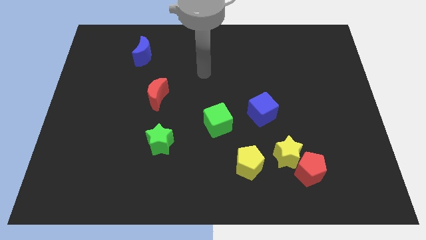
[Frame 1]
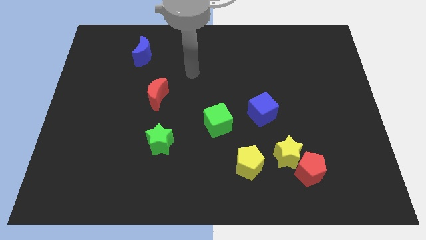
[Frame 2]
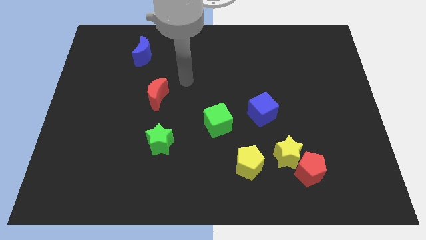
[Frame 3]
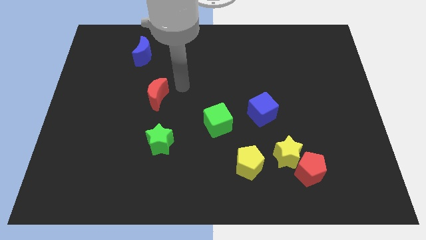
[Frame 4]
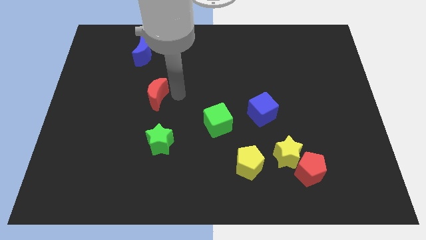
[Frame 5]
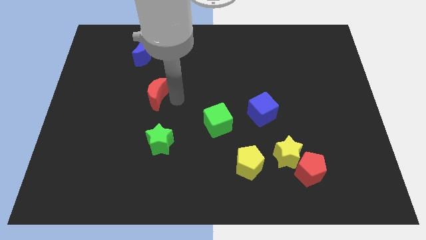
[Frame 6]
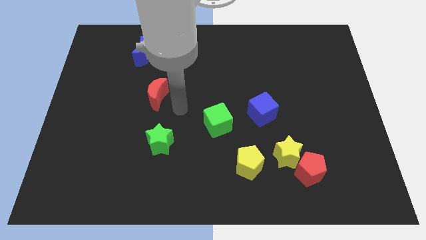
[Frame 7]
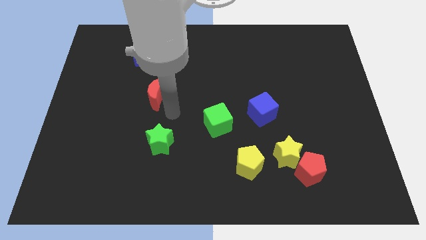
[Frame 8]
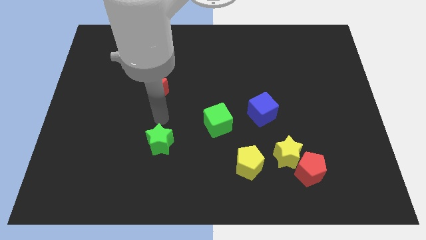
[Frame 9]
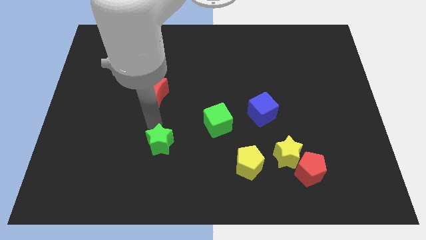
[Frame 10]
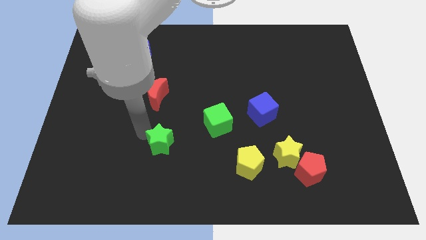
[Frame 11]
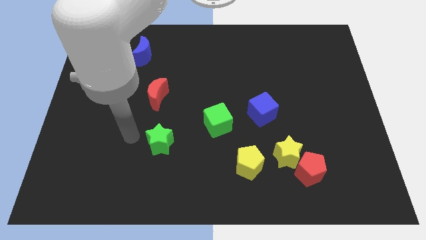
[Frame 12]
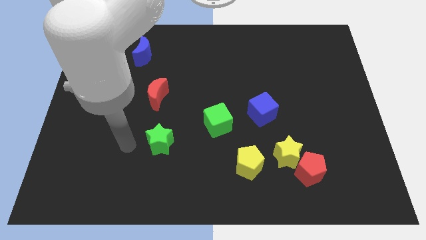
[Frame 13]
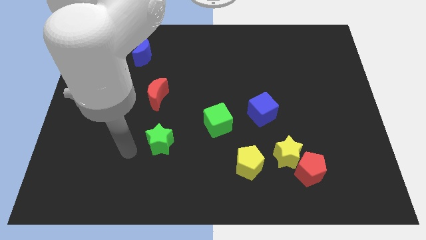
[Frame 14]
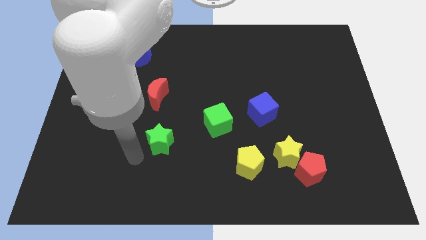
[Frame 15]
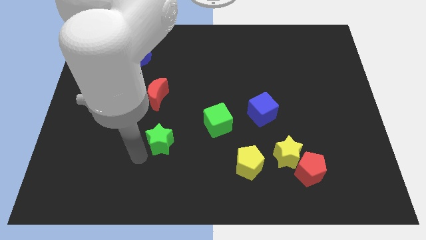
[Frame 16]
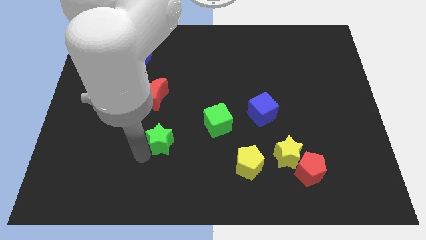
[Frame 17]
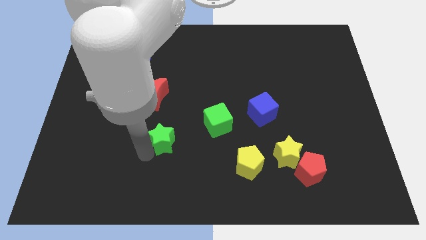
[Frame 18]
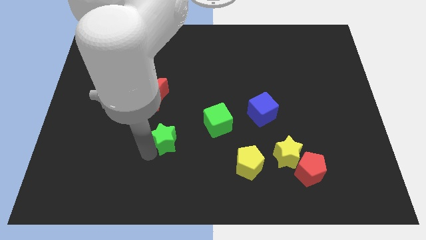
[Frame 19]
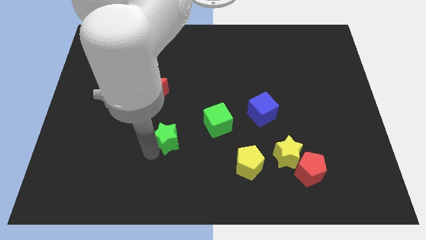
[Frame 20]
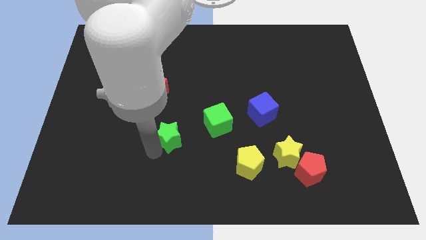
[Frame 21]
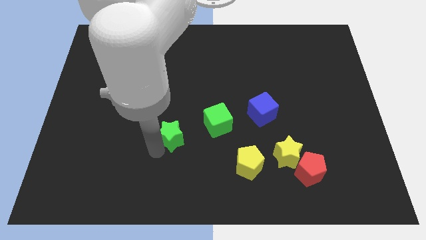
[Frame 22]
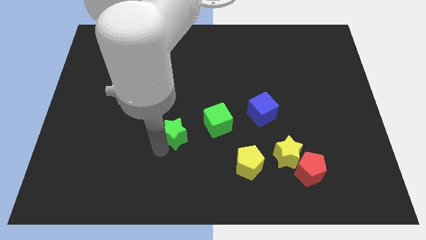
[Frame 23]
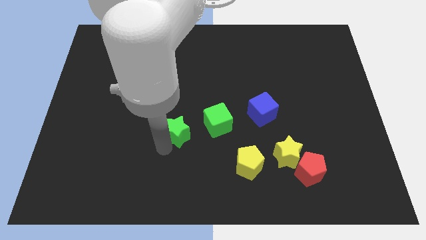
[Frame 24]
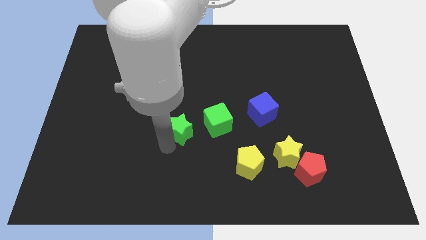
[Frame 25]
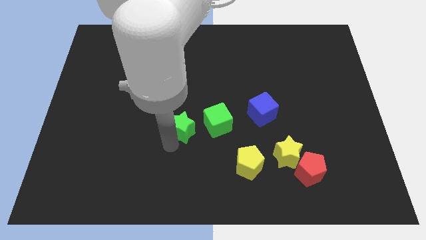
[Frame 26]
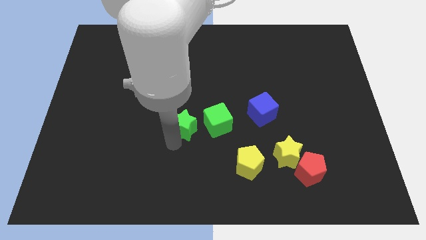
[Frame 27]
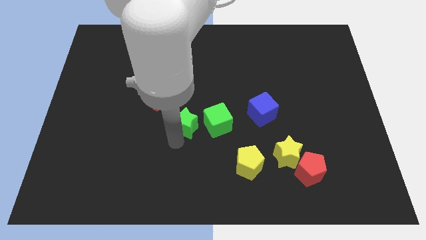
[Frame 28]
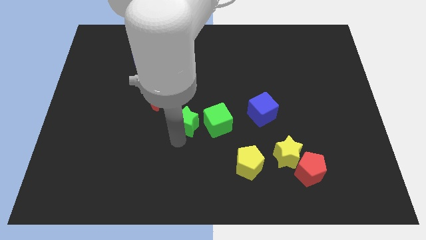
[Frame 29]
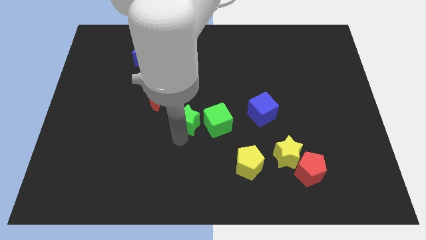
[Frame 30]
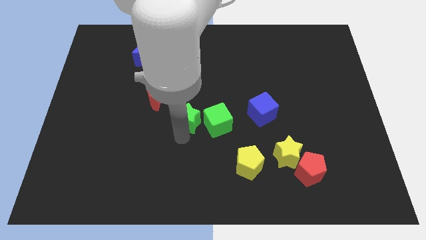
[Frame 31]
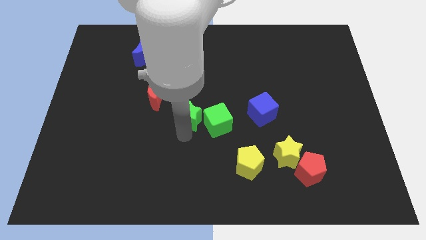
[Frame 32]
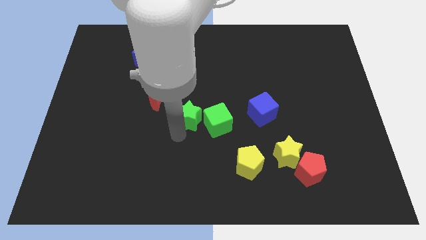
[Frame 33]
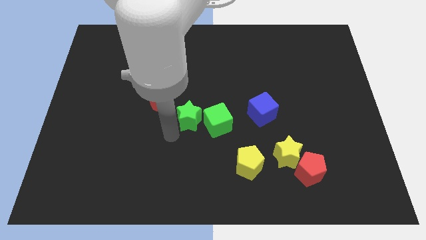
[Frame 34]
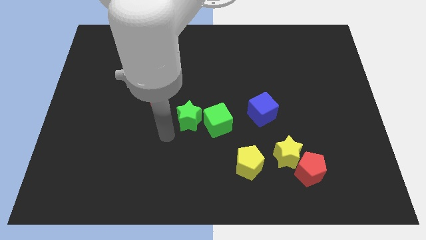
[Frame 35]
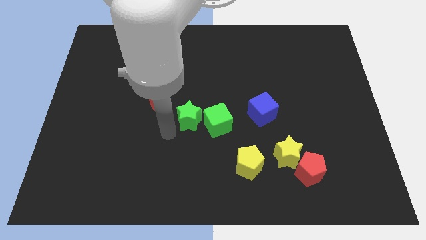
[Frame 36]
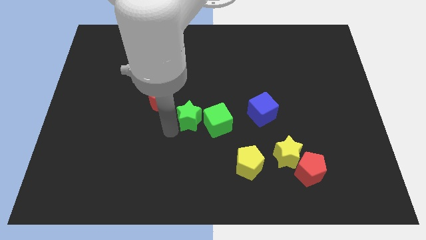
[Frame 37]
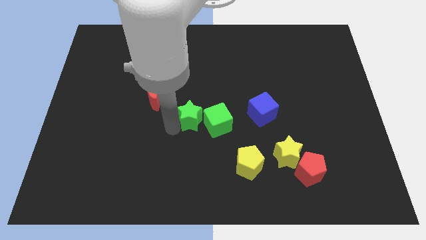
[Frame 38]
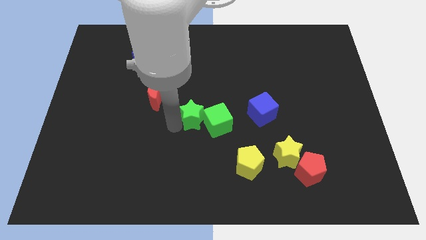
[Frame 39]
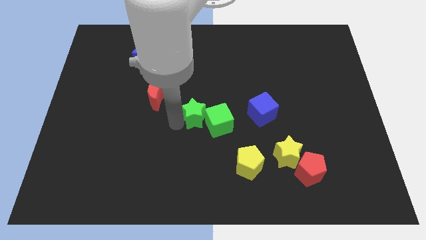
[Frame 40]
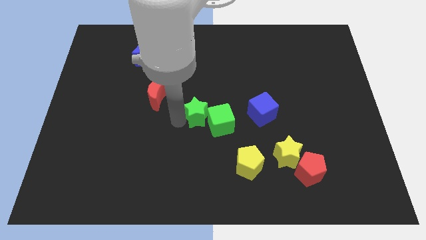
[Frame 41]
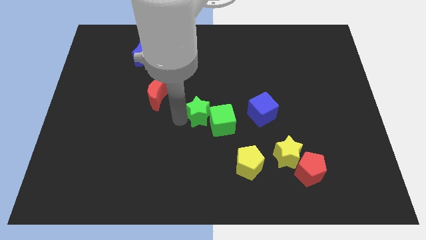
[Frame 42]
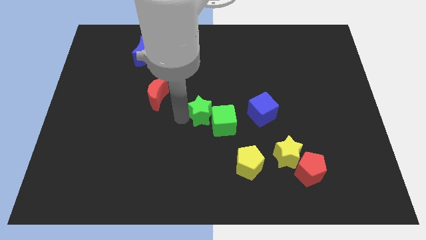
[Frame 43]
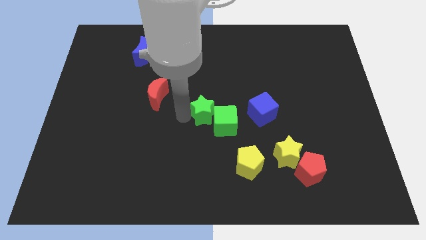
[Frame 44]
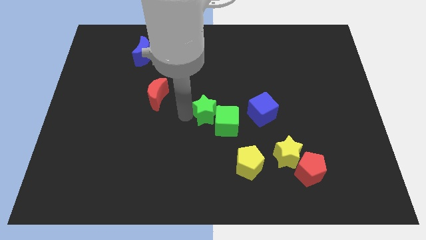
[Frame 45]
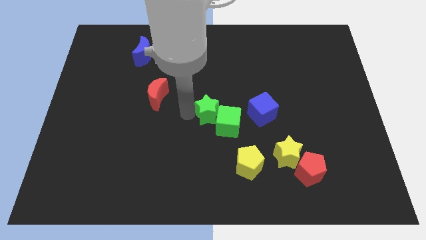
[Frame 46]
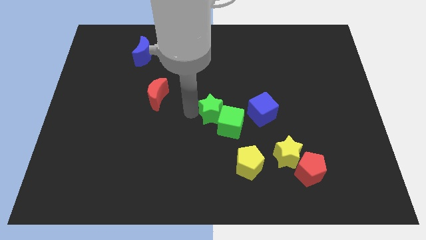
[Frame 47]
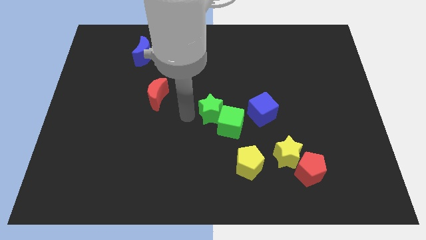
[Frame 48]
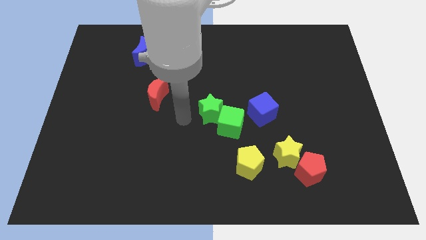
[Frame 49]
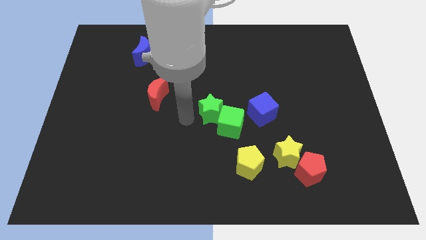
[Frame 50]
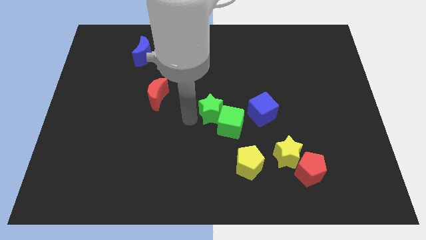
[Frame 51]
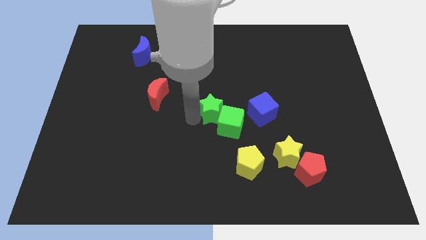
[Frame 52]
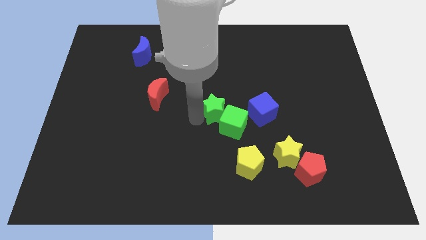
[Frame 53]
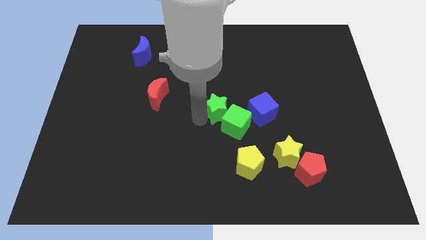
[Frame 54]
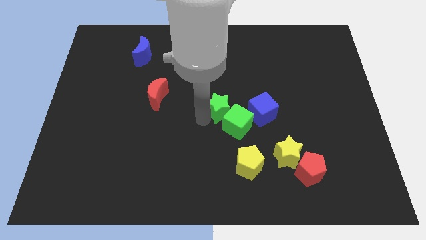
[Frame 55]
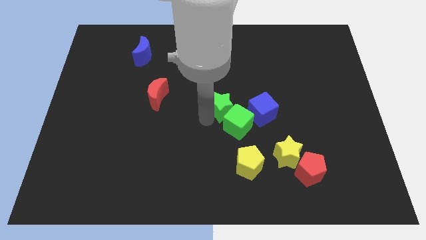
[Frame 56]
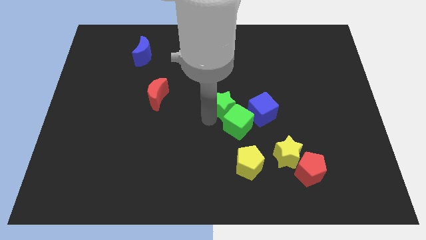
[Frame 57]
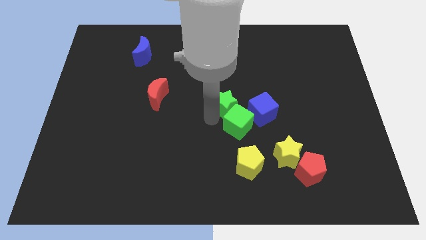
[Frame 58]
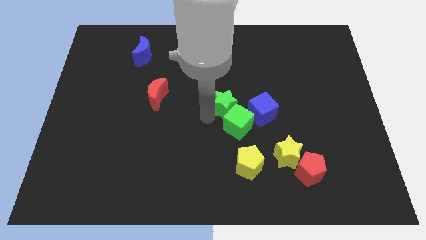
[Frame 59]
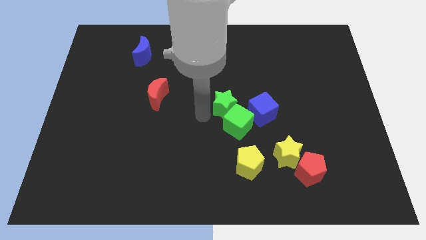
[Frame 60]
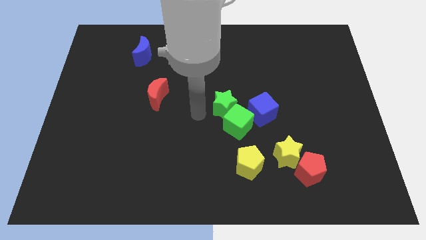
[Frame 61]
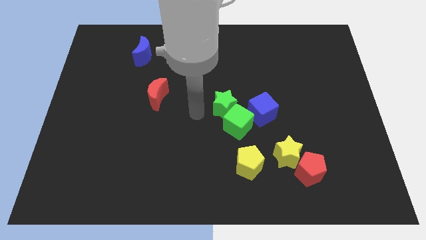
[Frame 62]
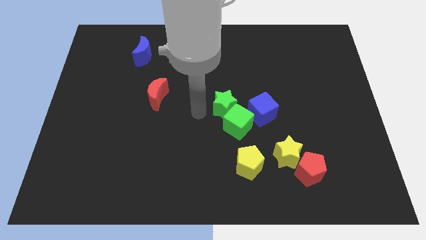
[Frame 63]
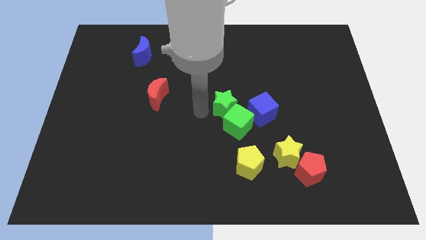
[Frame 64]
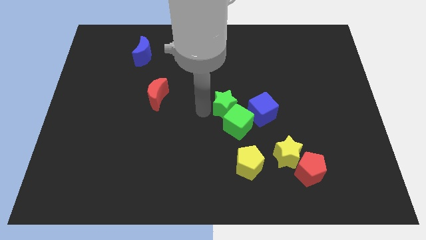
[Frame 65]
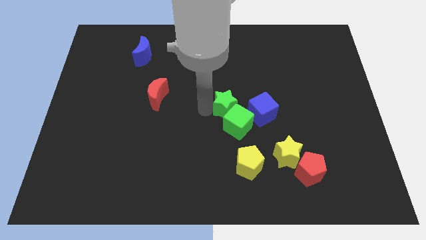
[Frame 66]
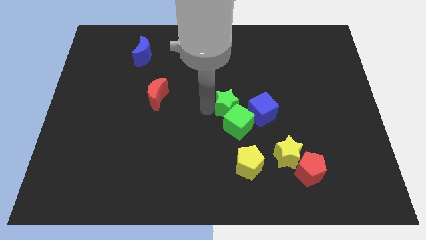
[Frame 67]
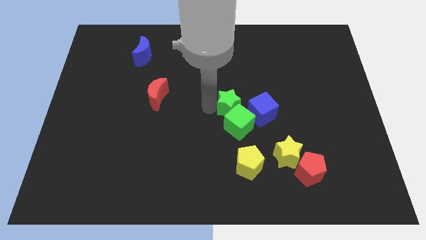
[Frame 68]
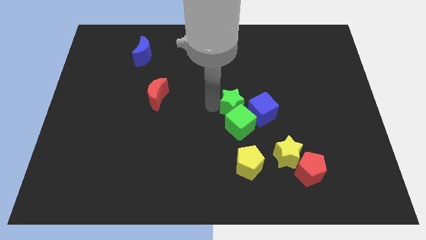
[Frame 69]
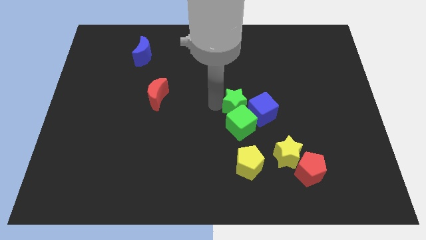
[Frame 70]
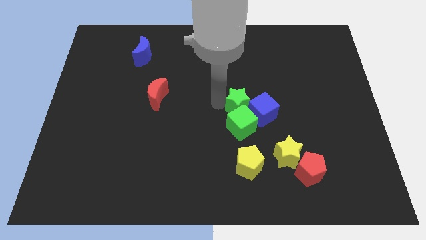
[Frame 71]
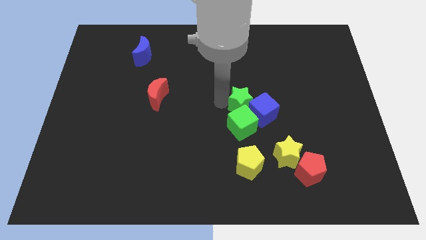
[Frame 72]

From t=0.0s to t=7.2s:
slide the green star close to the blue cube
